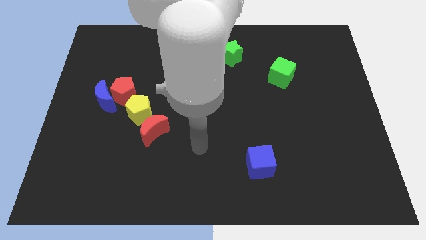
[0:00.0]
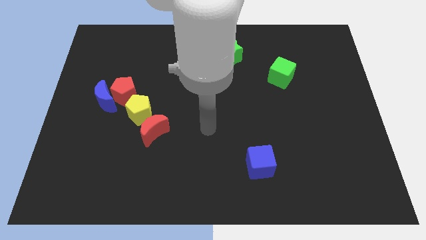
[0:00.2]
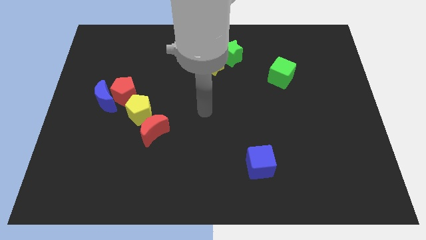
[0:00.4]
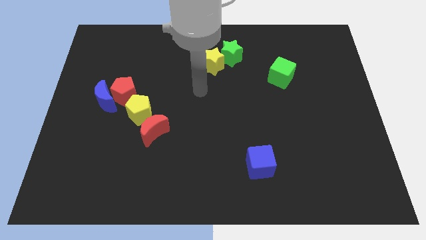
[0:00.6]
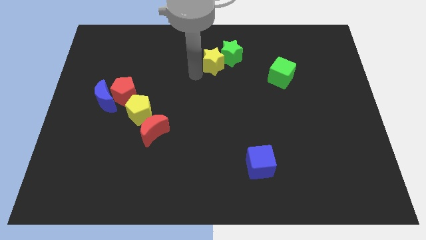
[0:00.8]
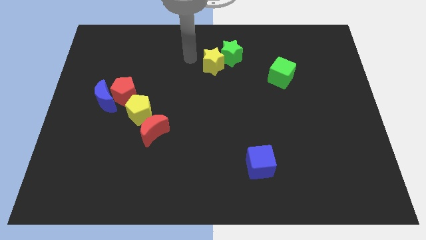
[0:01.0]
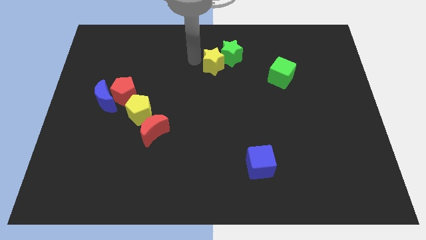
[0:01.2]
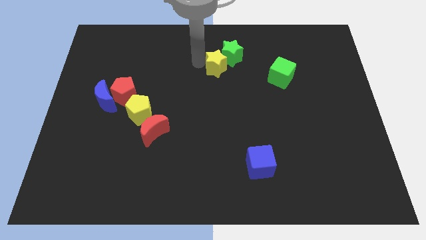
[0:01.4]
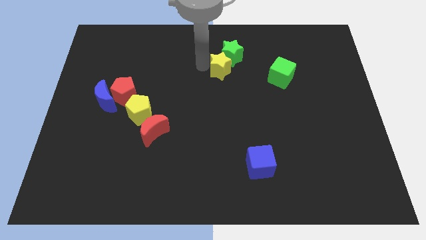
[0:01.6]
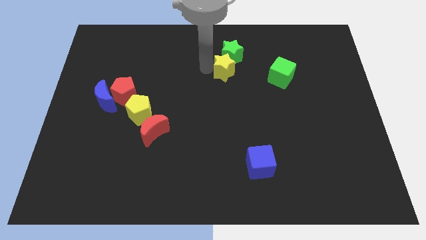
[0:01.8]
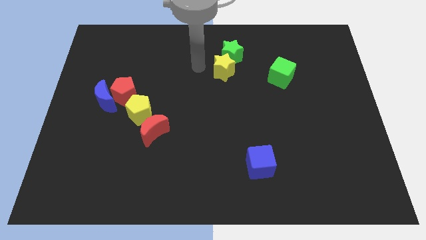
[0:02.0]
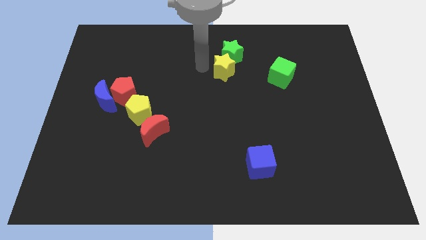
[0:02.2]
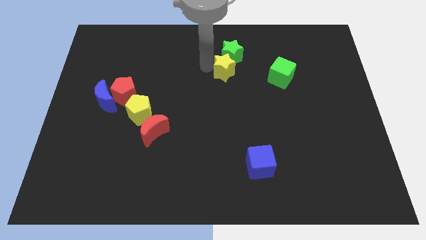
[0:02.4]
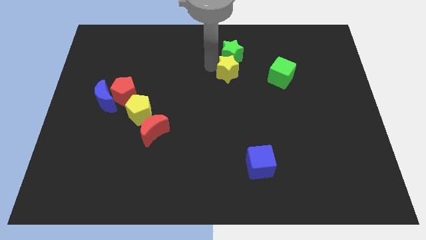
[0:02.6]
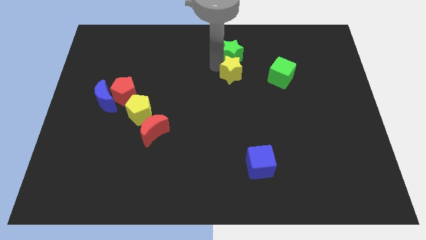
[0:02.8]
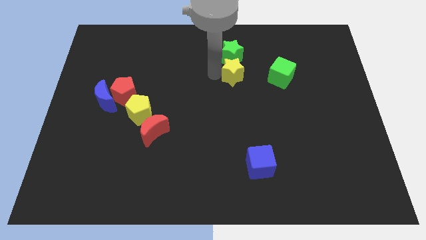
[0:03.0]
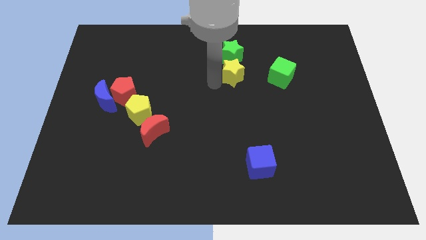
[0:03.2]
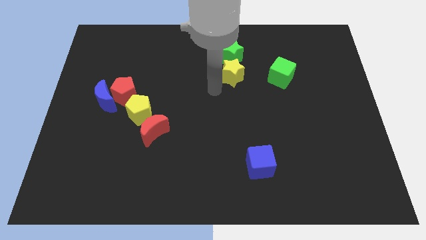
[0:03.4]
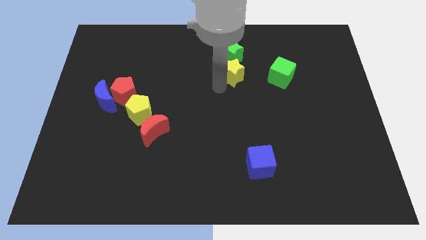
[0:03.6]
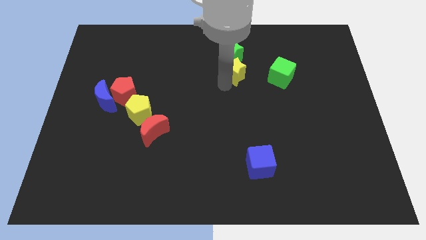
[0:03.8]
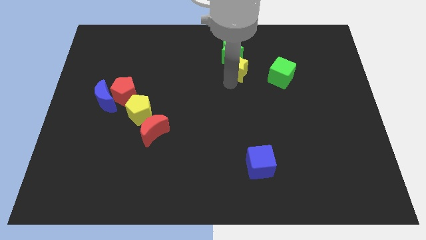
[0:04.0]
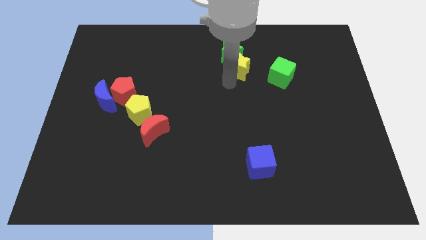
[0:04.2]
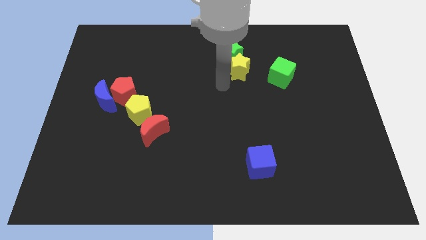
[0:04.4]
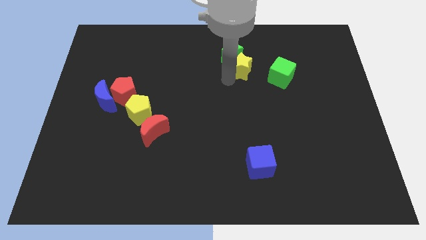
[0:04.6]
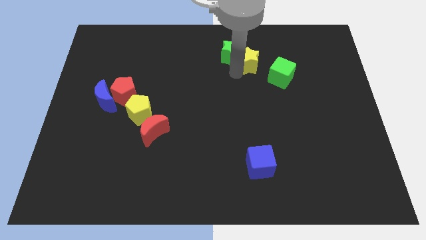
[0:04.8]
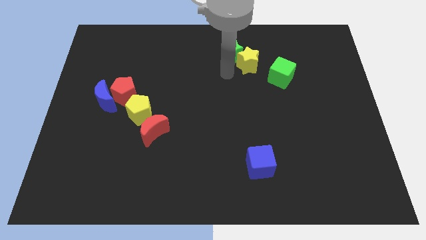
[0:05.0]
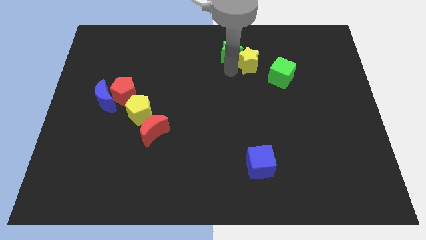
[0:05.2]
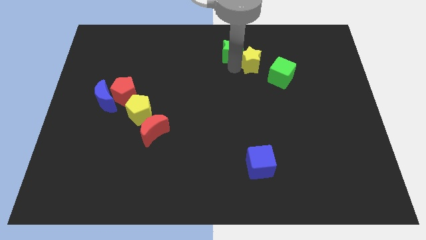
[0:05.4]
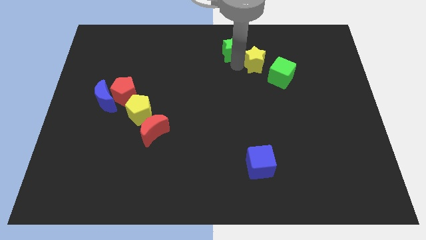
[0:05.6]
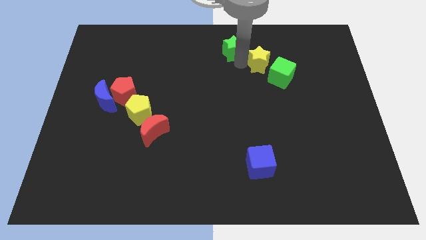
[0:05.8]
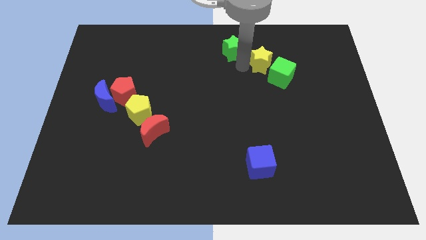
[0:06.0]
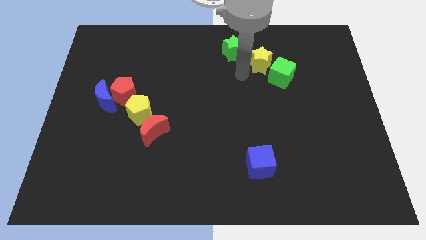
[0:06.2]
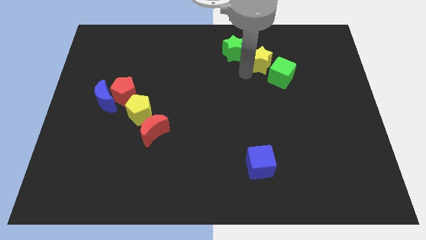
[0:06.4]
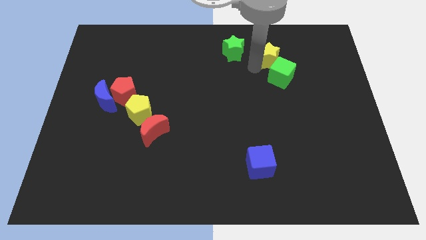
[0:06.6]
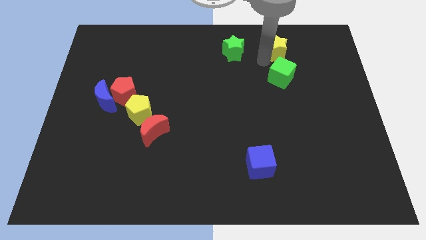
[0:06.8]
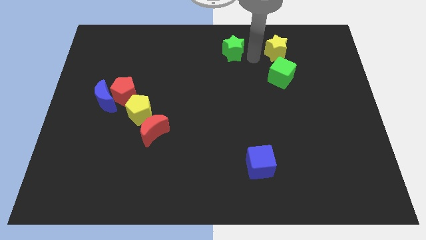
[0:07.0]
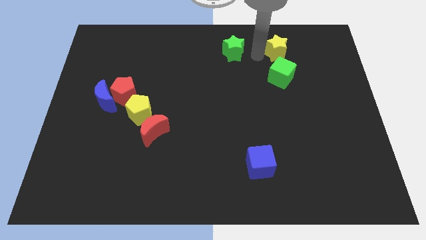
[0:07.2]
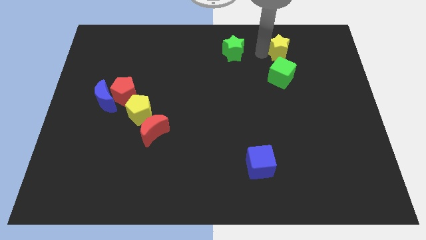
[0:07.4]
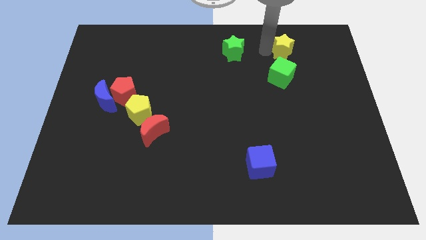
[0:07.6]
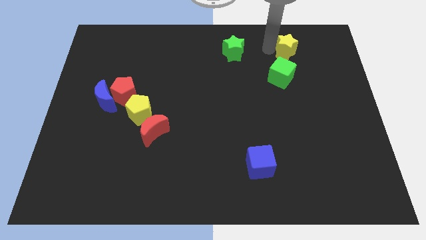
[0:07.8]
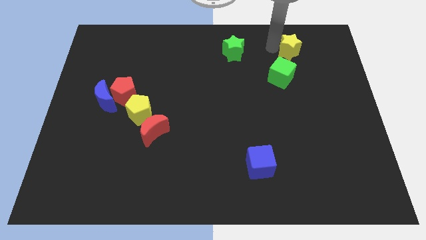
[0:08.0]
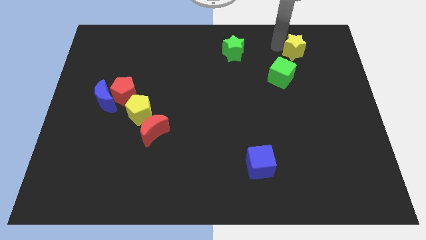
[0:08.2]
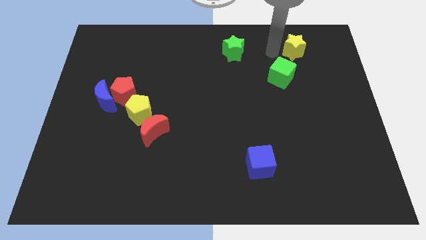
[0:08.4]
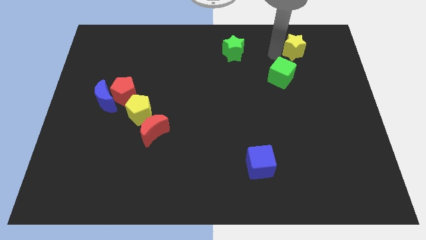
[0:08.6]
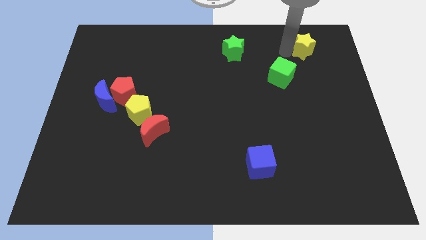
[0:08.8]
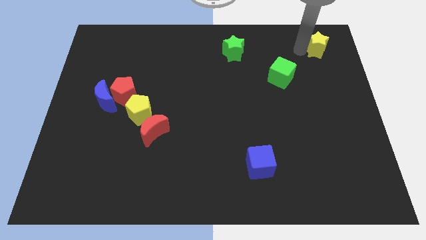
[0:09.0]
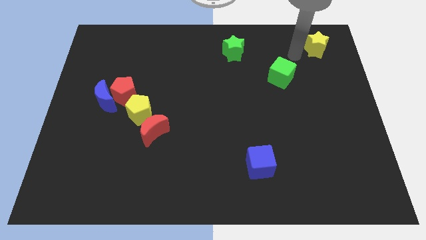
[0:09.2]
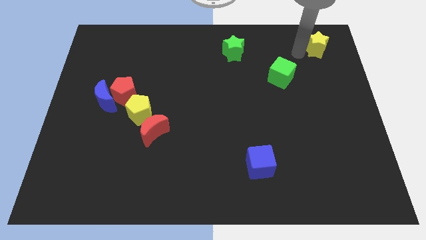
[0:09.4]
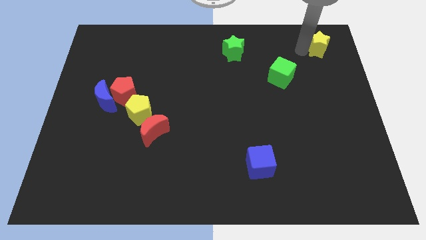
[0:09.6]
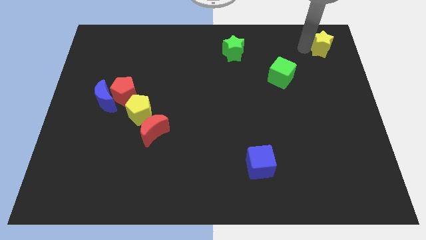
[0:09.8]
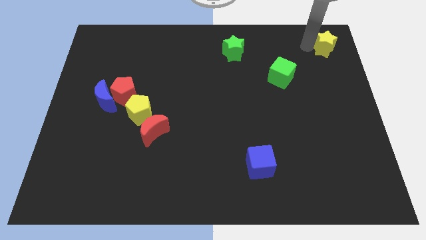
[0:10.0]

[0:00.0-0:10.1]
put the yellow star to the top right of the board

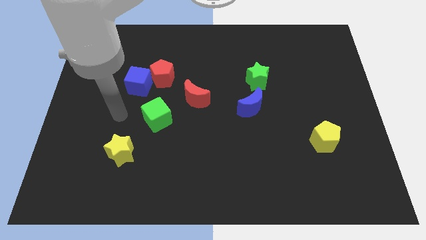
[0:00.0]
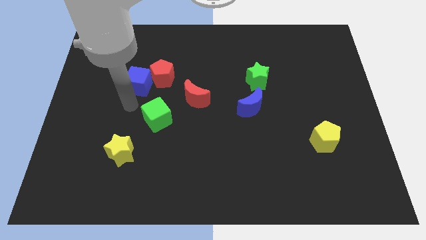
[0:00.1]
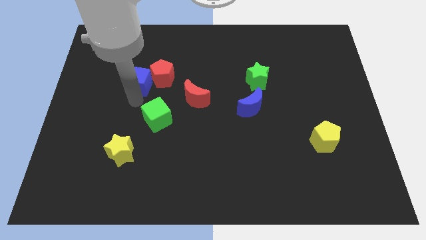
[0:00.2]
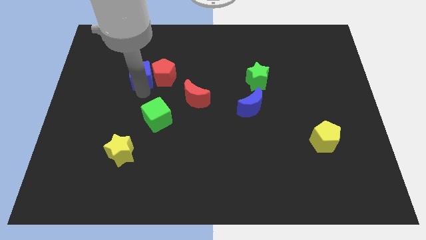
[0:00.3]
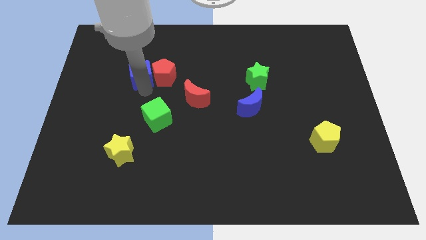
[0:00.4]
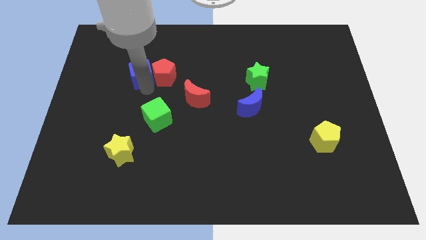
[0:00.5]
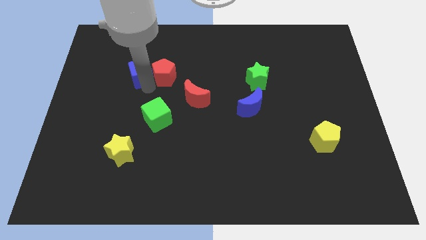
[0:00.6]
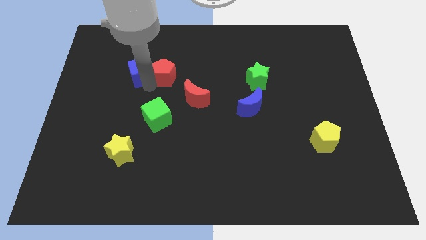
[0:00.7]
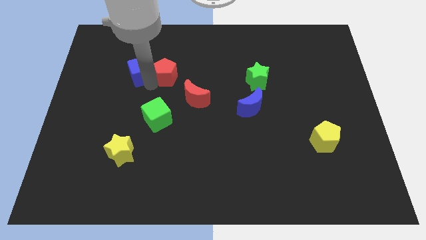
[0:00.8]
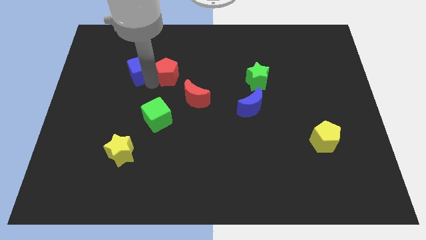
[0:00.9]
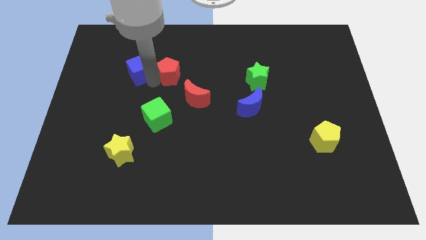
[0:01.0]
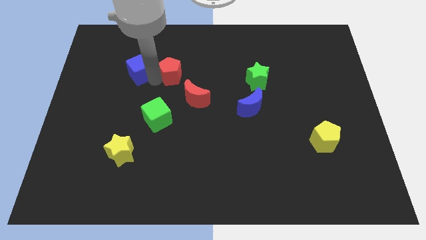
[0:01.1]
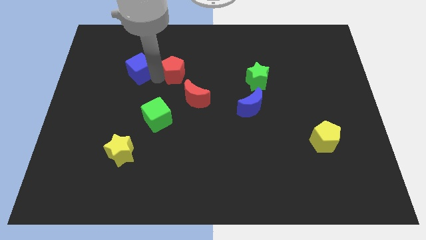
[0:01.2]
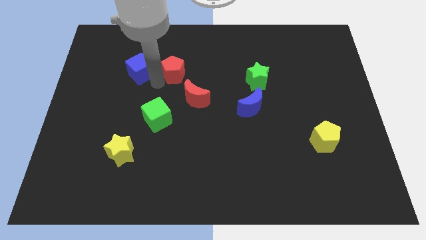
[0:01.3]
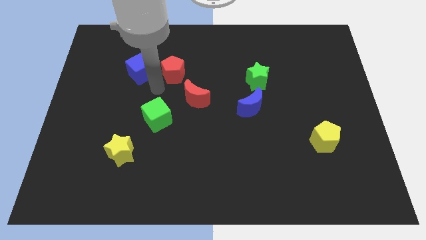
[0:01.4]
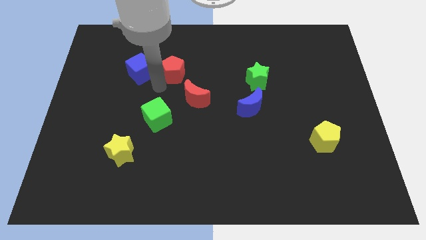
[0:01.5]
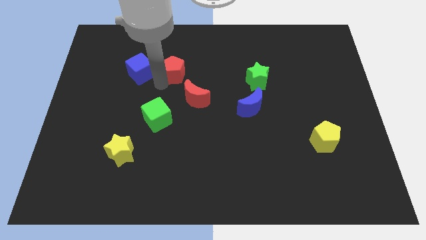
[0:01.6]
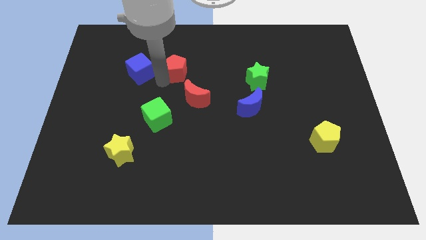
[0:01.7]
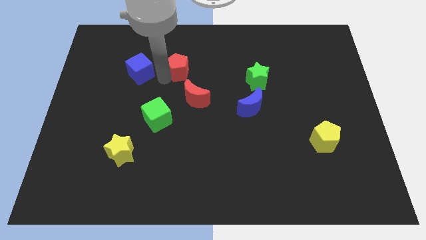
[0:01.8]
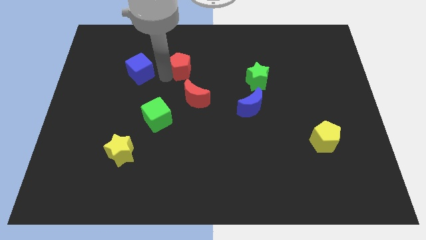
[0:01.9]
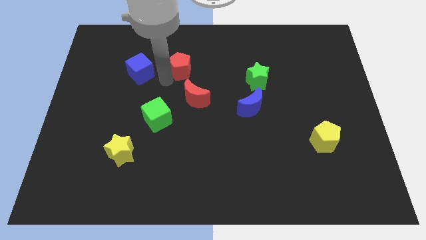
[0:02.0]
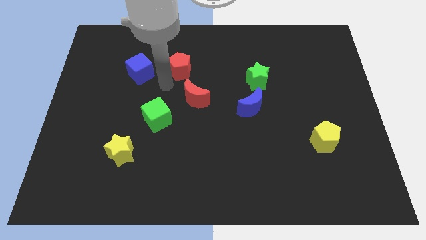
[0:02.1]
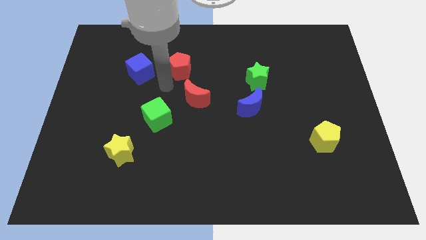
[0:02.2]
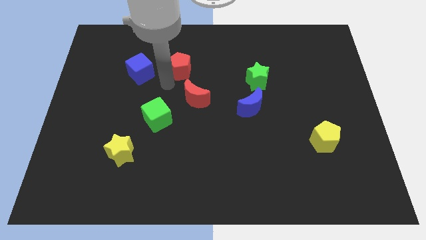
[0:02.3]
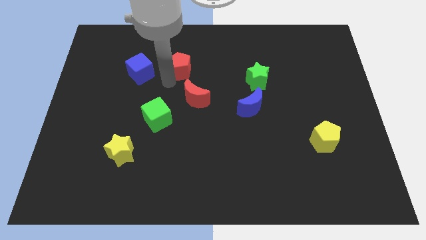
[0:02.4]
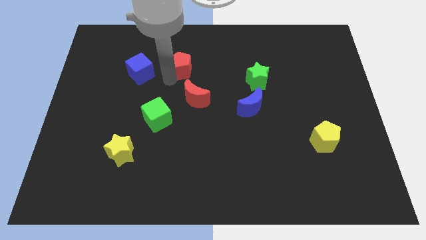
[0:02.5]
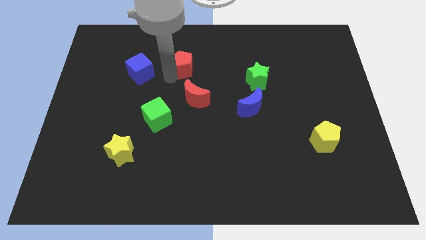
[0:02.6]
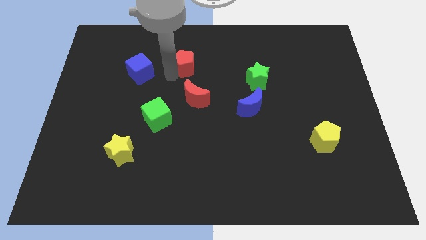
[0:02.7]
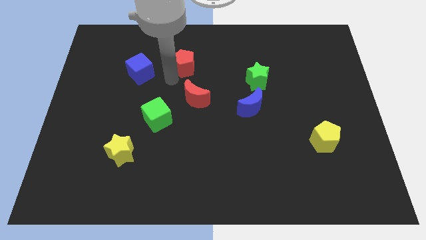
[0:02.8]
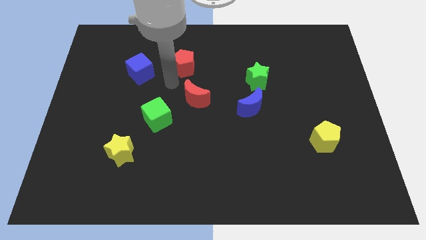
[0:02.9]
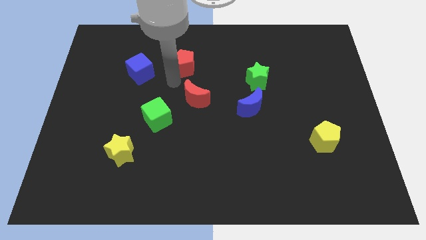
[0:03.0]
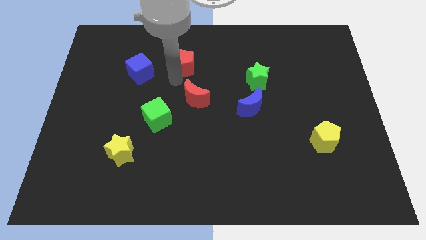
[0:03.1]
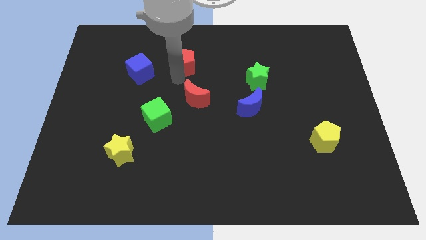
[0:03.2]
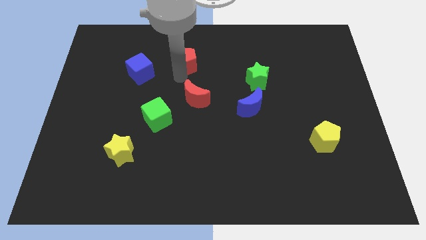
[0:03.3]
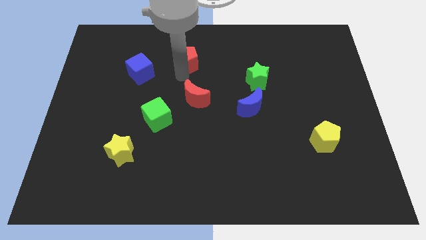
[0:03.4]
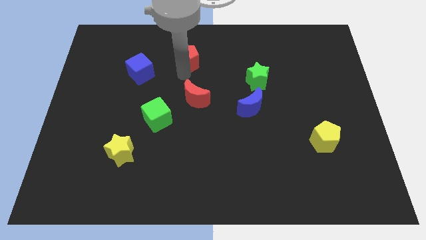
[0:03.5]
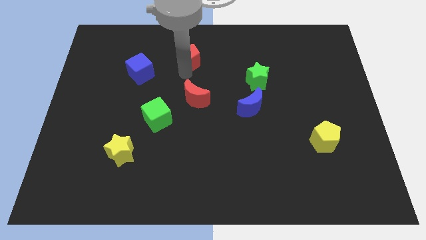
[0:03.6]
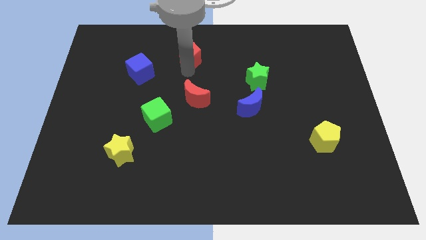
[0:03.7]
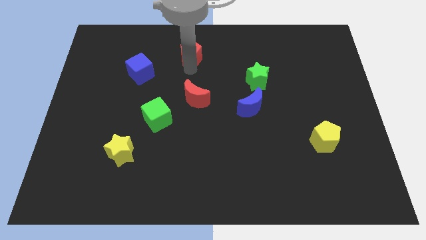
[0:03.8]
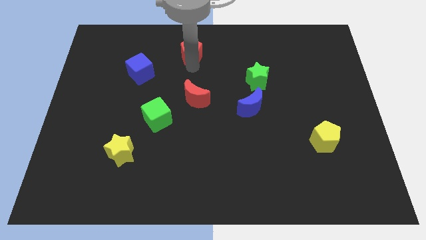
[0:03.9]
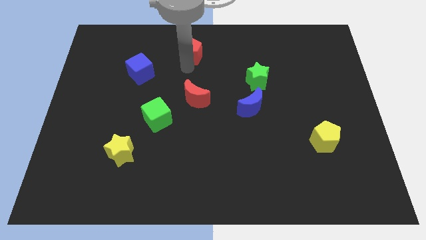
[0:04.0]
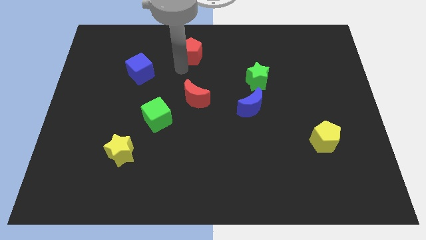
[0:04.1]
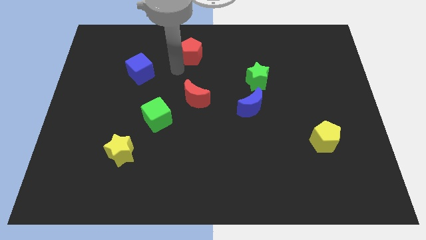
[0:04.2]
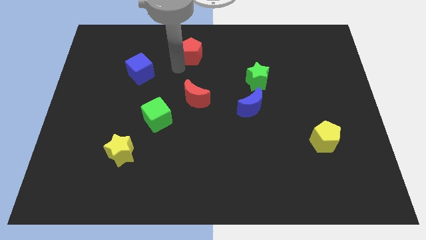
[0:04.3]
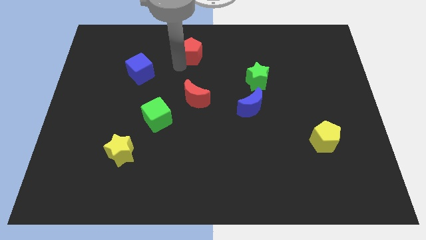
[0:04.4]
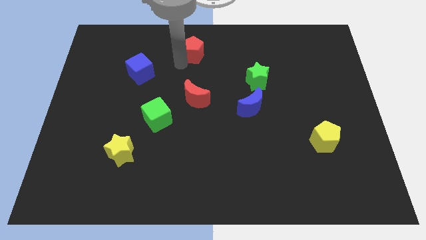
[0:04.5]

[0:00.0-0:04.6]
slide the red pentagon to the towards your base
